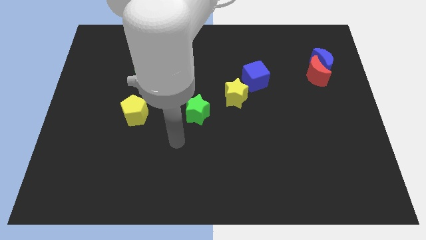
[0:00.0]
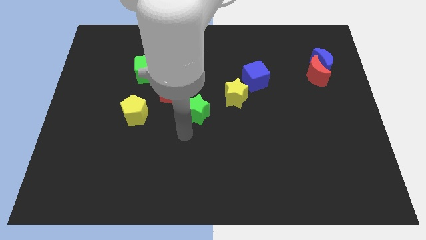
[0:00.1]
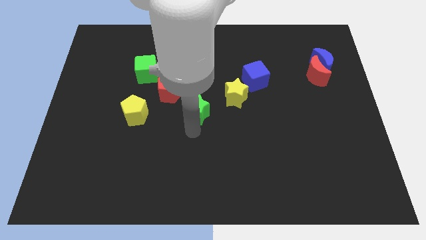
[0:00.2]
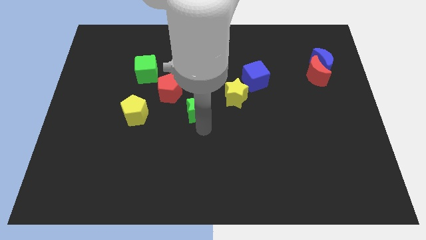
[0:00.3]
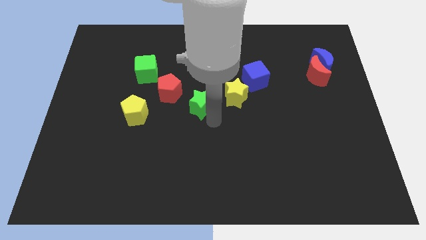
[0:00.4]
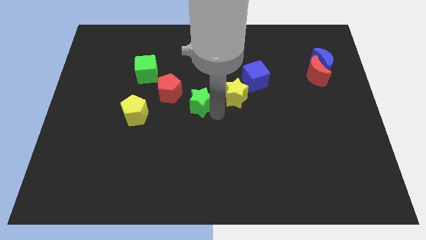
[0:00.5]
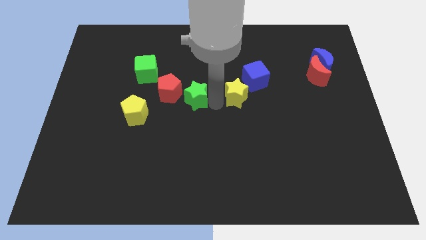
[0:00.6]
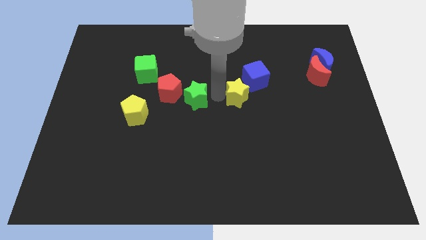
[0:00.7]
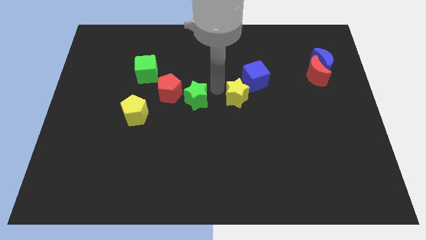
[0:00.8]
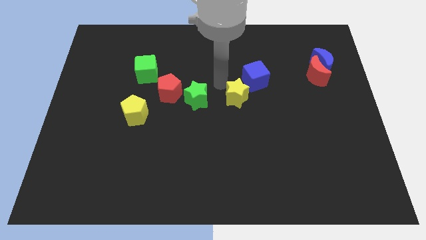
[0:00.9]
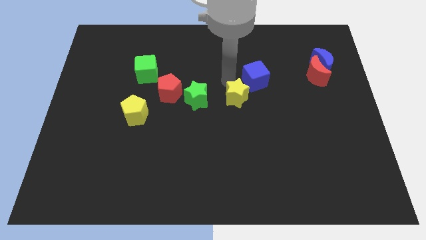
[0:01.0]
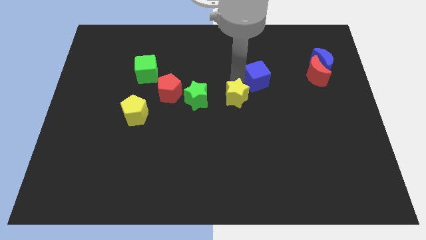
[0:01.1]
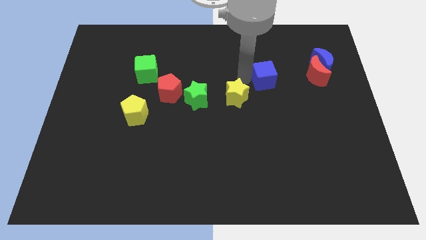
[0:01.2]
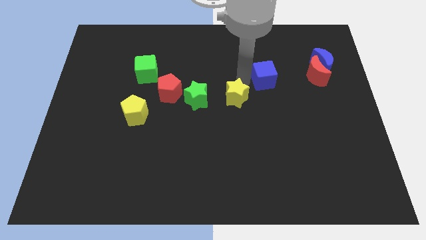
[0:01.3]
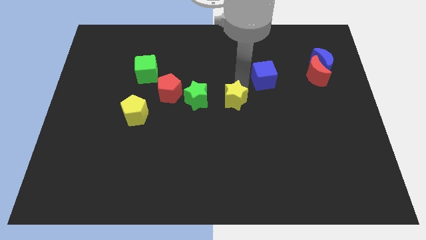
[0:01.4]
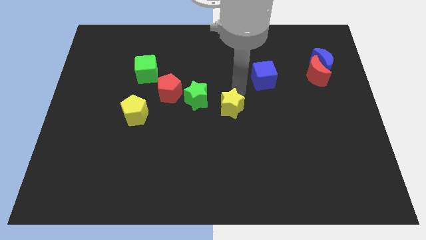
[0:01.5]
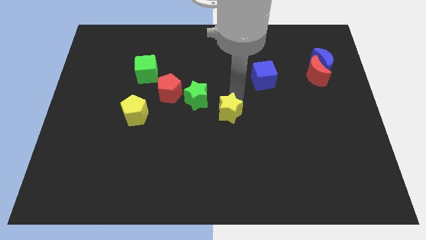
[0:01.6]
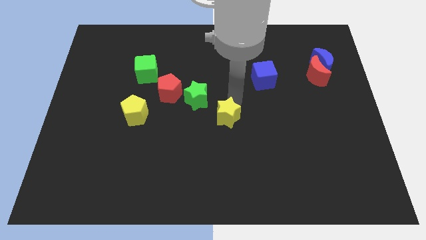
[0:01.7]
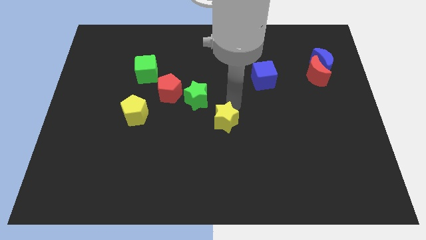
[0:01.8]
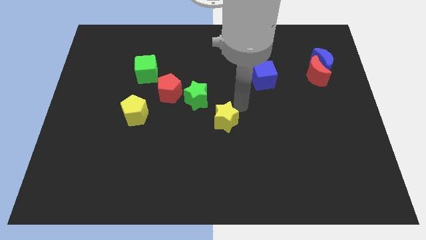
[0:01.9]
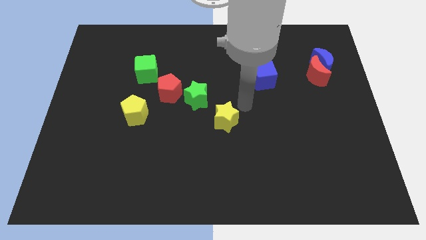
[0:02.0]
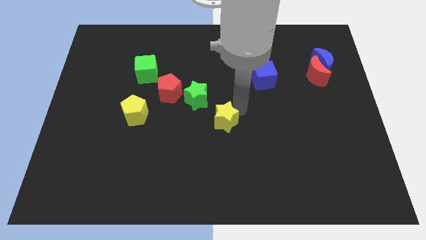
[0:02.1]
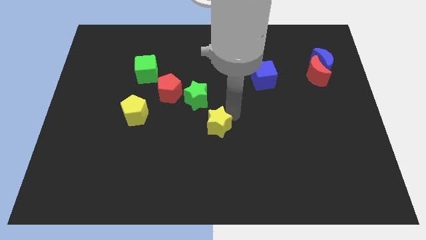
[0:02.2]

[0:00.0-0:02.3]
move the yellow star somewhat diagonally down and to the left

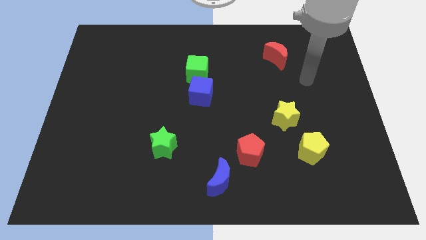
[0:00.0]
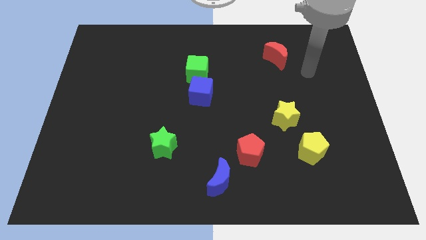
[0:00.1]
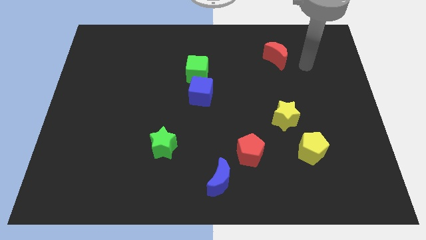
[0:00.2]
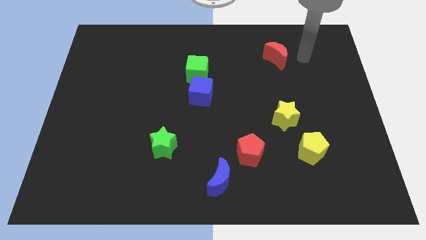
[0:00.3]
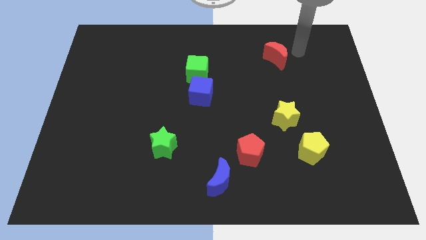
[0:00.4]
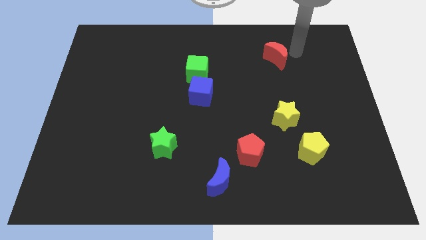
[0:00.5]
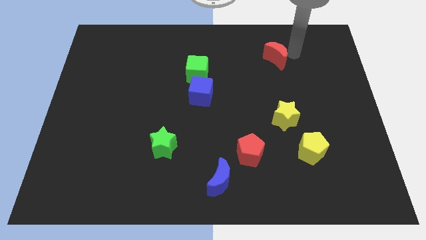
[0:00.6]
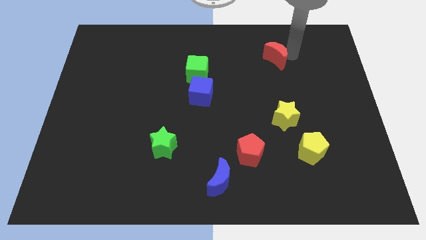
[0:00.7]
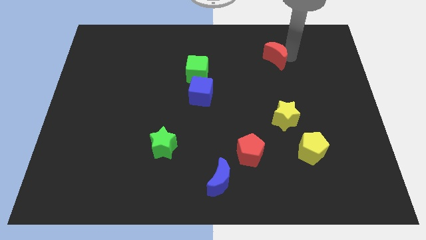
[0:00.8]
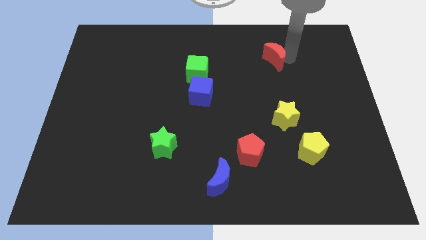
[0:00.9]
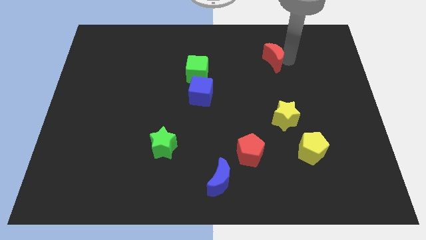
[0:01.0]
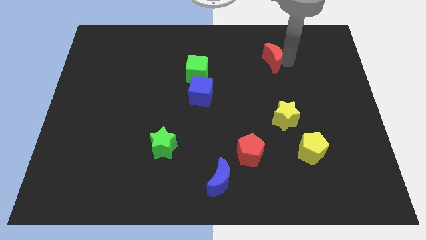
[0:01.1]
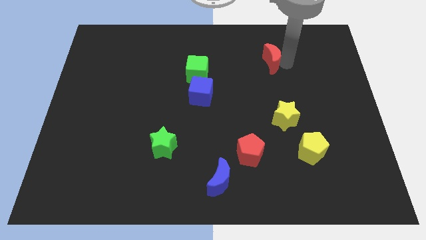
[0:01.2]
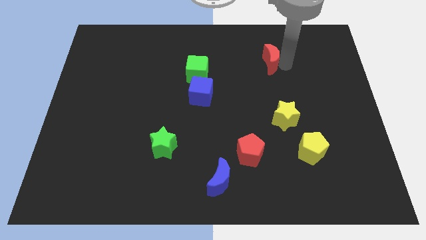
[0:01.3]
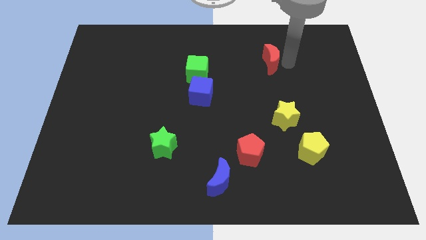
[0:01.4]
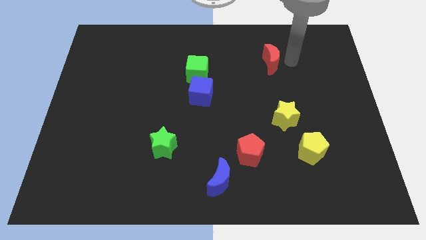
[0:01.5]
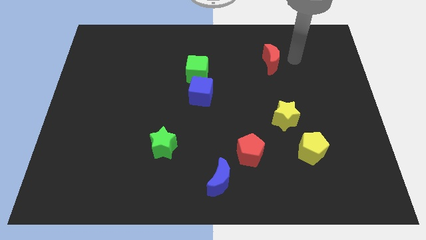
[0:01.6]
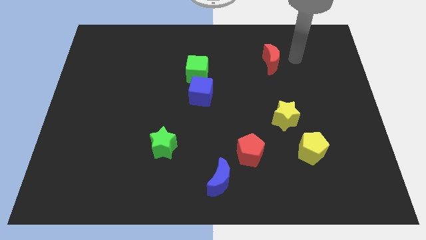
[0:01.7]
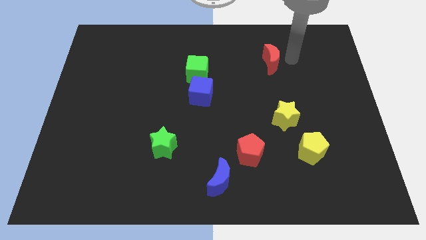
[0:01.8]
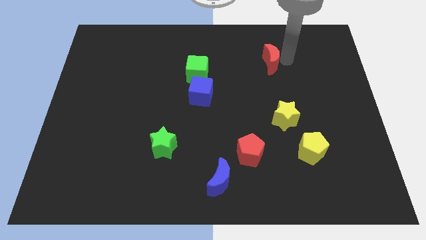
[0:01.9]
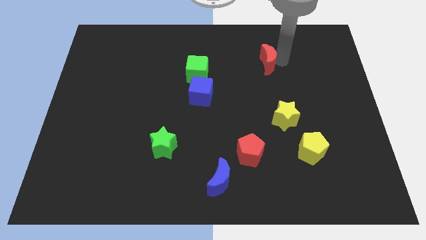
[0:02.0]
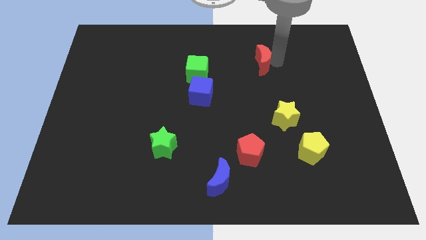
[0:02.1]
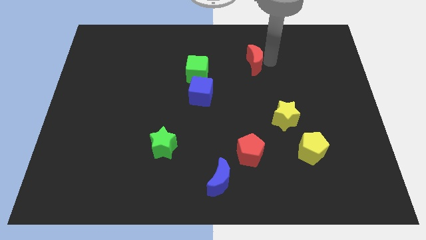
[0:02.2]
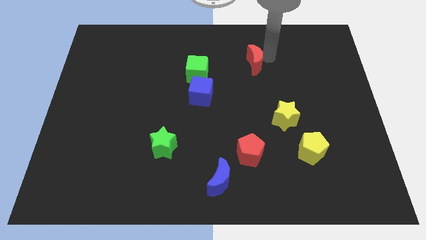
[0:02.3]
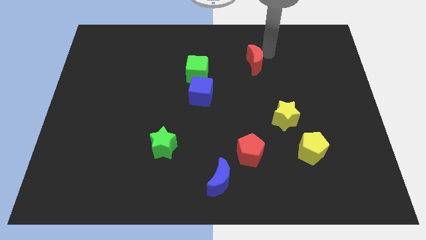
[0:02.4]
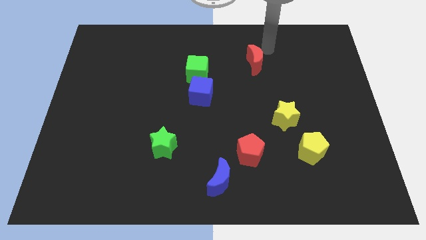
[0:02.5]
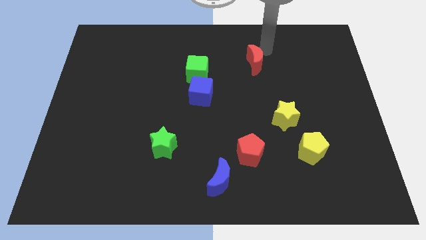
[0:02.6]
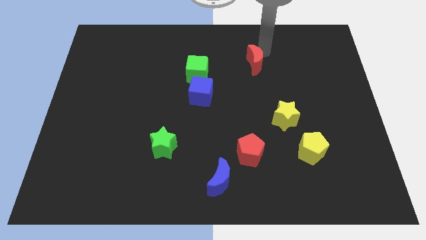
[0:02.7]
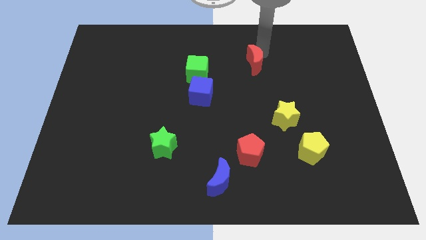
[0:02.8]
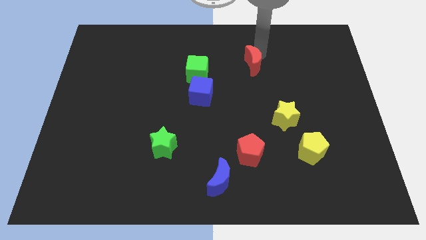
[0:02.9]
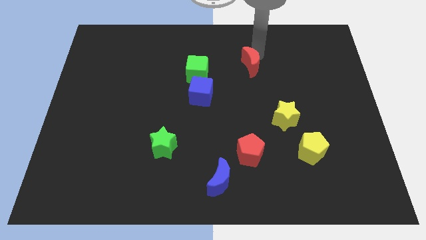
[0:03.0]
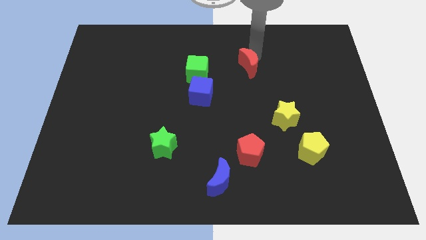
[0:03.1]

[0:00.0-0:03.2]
slightly push the red moon down and to the left diagonally

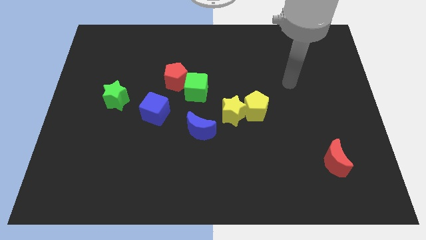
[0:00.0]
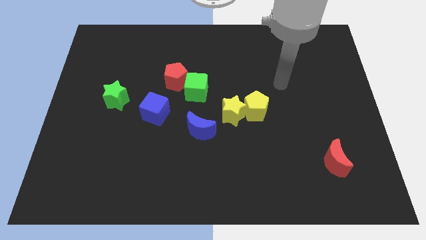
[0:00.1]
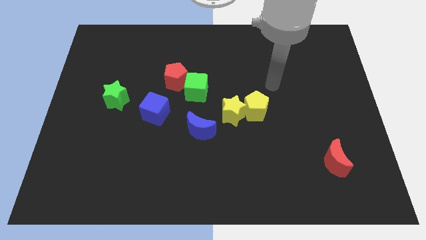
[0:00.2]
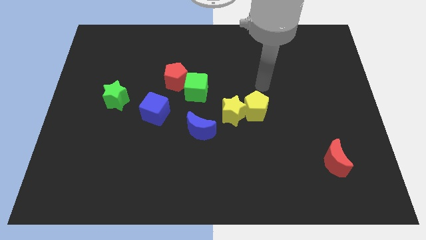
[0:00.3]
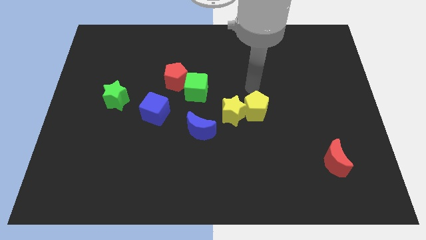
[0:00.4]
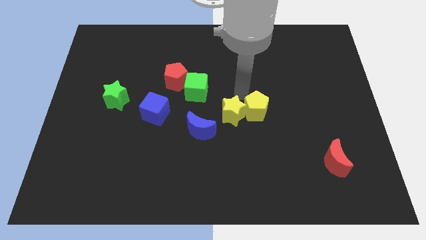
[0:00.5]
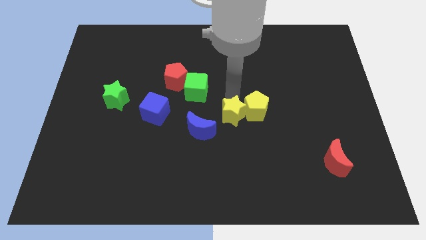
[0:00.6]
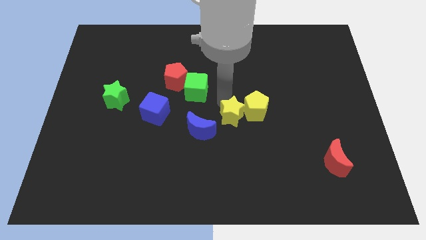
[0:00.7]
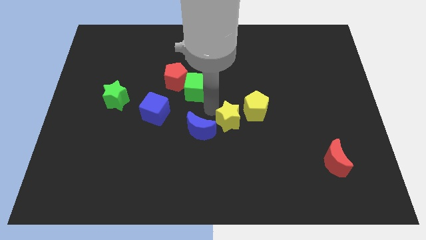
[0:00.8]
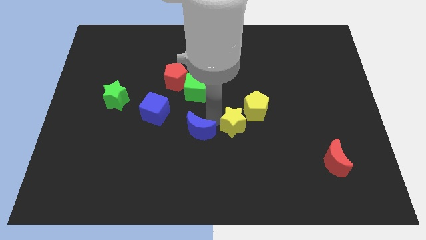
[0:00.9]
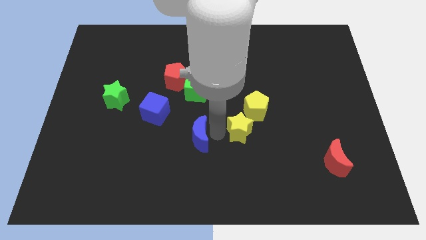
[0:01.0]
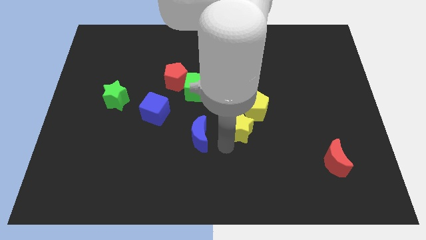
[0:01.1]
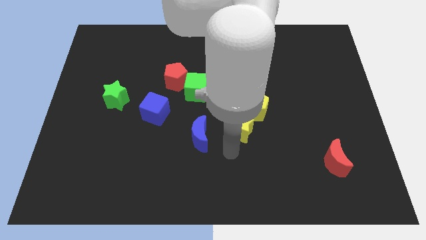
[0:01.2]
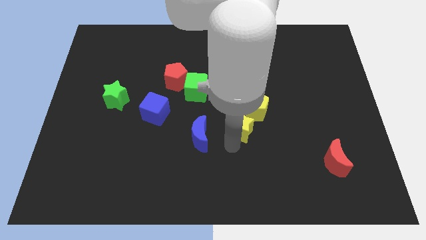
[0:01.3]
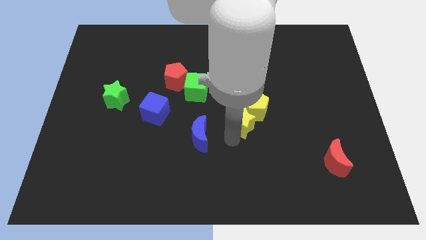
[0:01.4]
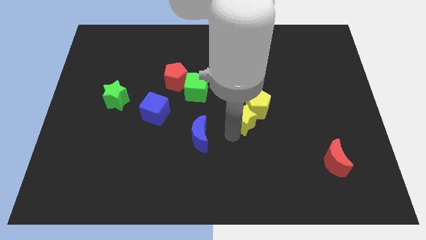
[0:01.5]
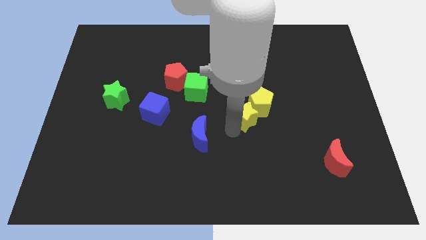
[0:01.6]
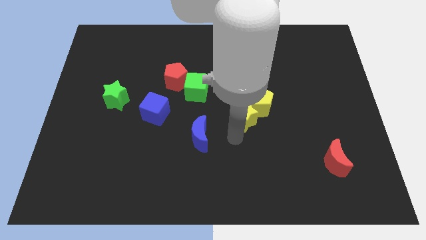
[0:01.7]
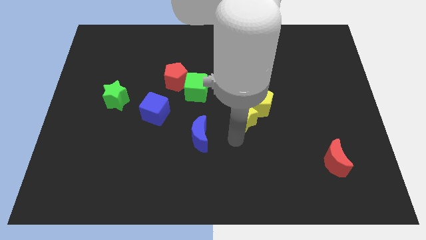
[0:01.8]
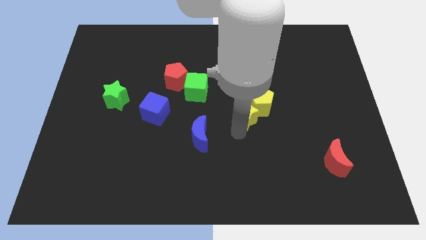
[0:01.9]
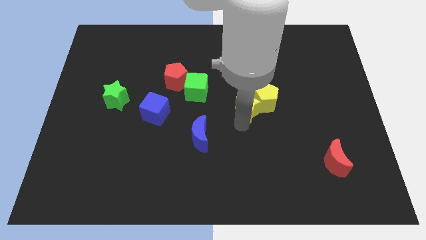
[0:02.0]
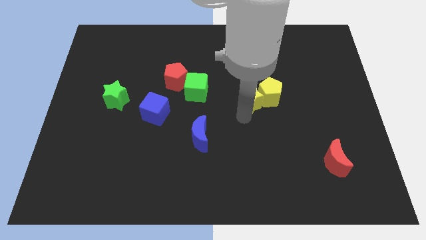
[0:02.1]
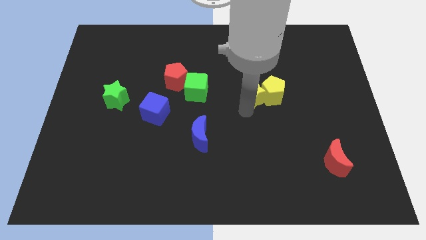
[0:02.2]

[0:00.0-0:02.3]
push the yellow star upwards and to the right a little bit

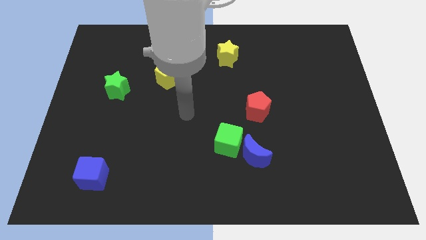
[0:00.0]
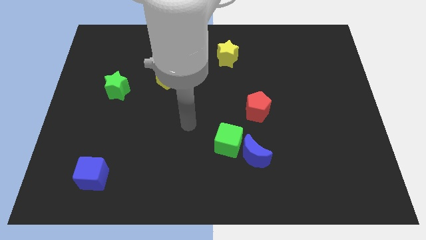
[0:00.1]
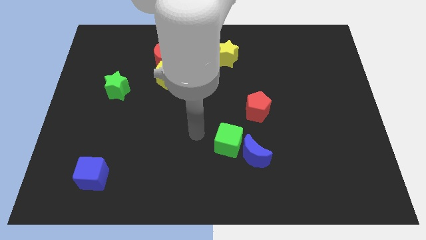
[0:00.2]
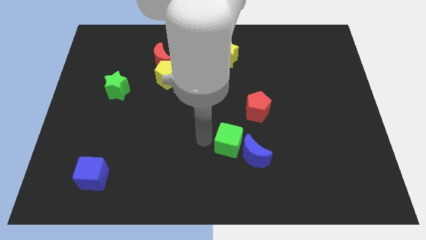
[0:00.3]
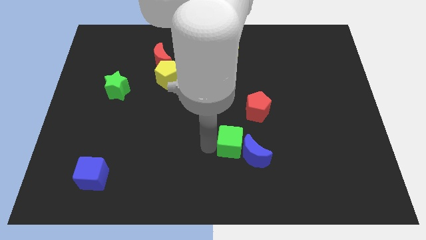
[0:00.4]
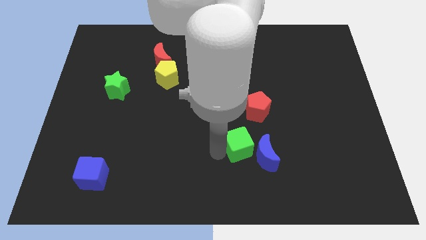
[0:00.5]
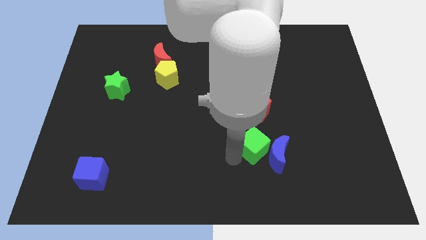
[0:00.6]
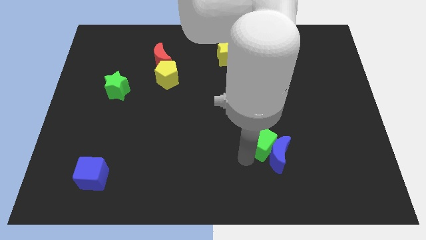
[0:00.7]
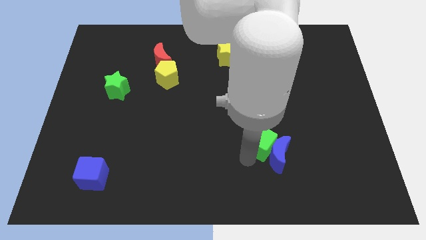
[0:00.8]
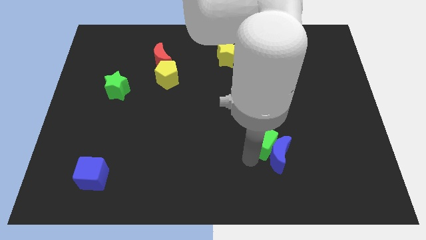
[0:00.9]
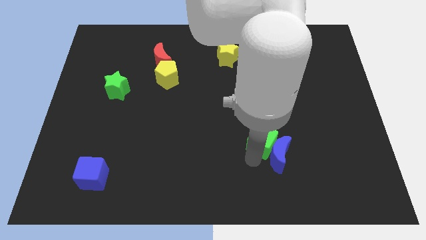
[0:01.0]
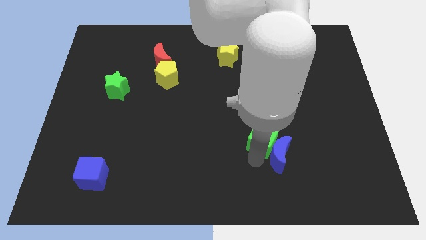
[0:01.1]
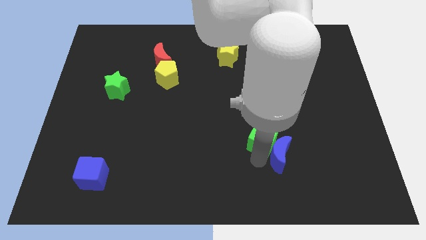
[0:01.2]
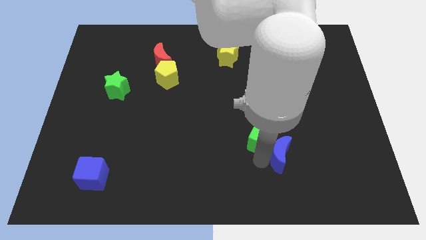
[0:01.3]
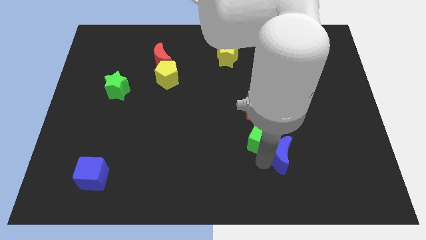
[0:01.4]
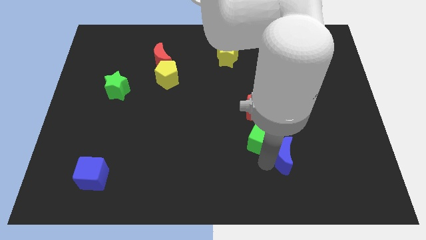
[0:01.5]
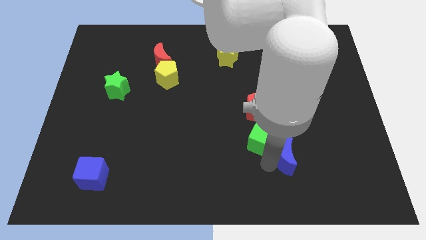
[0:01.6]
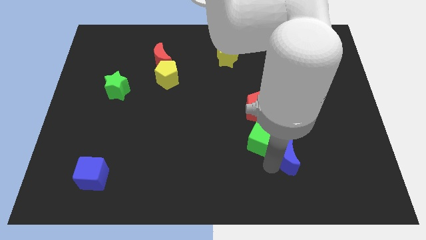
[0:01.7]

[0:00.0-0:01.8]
slightly move the blue moon right
